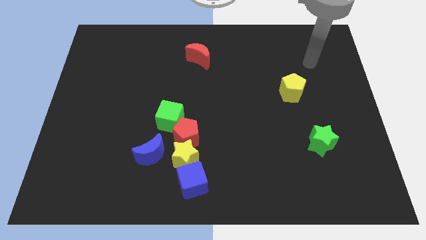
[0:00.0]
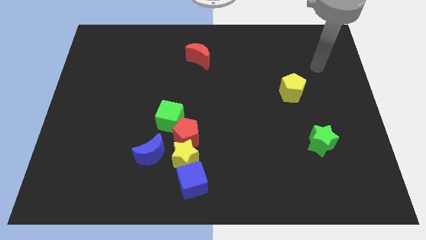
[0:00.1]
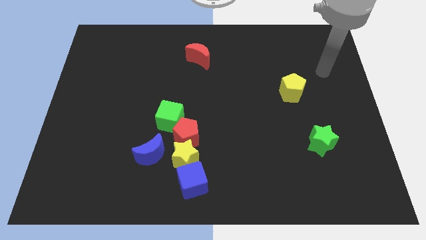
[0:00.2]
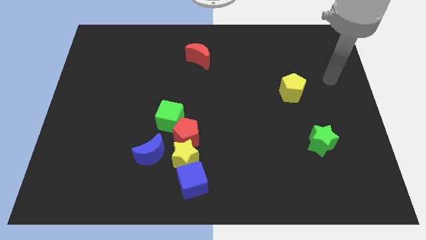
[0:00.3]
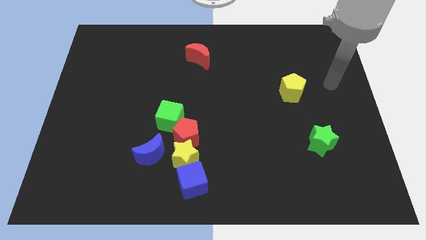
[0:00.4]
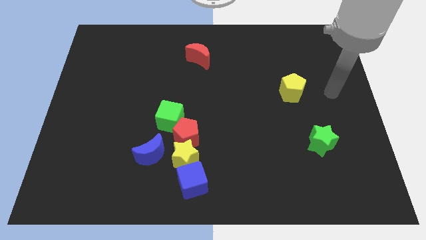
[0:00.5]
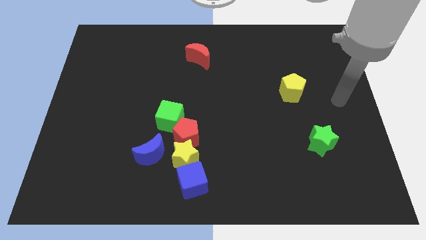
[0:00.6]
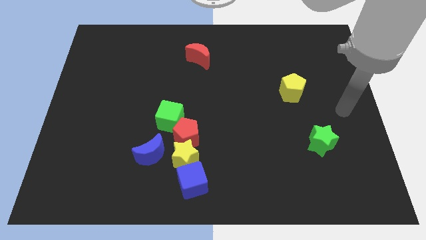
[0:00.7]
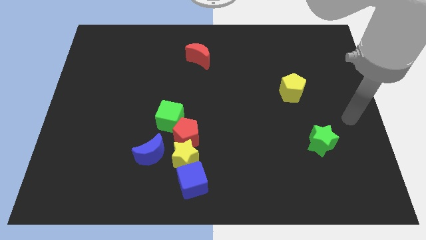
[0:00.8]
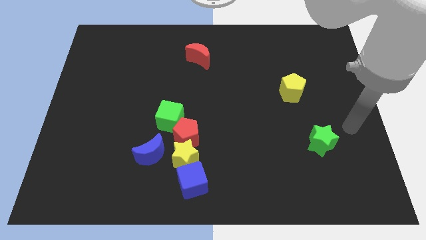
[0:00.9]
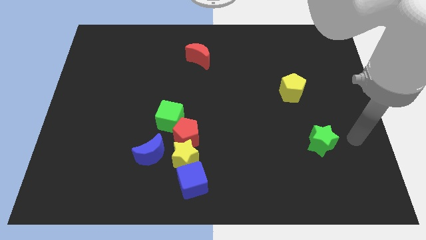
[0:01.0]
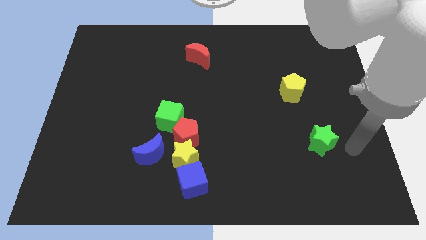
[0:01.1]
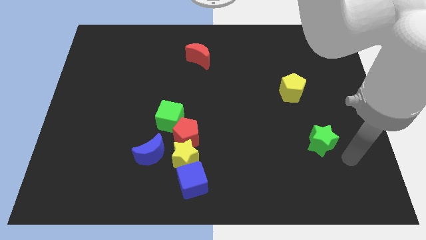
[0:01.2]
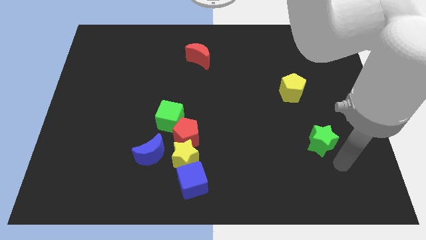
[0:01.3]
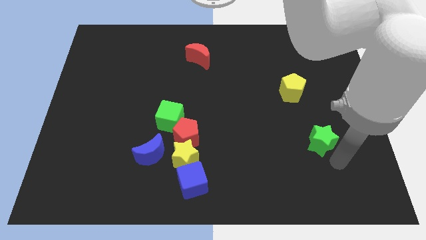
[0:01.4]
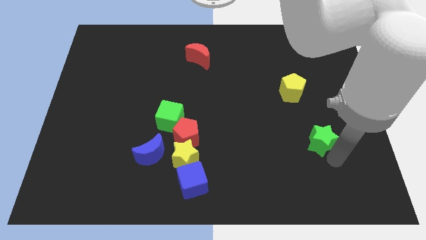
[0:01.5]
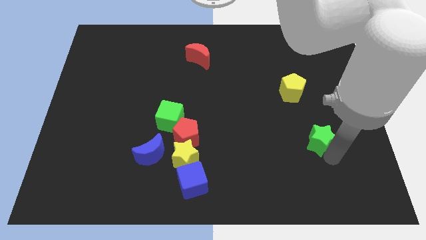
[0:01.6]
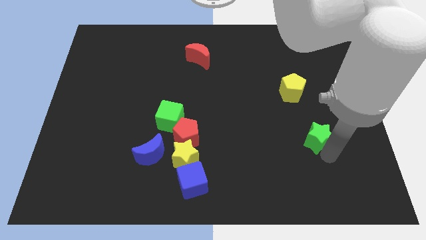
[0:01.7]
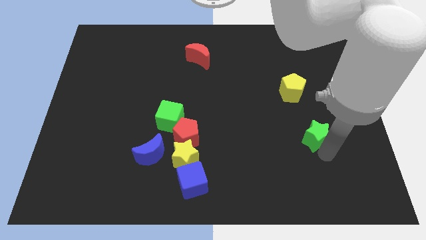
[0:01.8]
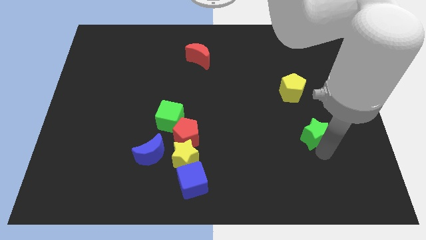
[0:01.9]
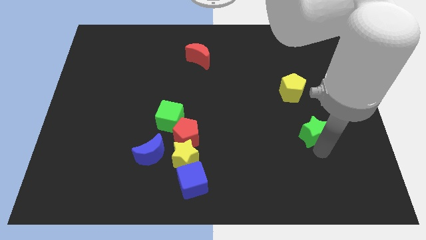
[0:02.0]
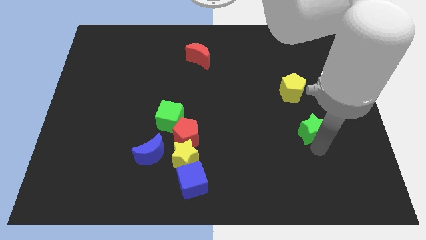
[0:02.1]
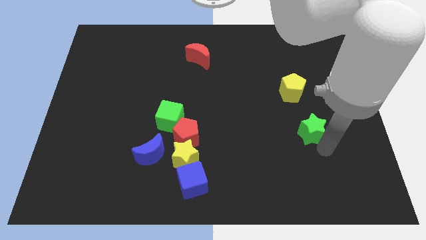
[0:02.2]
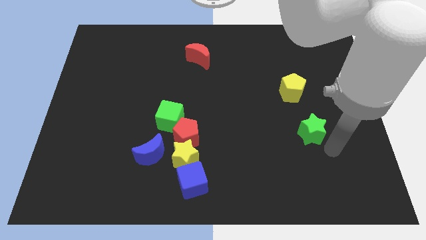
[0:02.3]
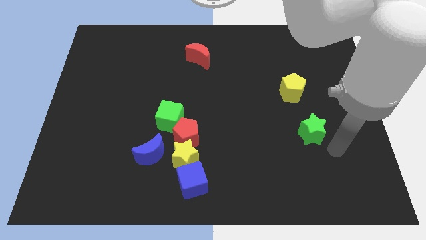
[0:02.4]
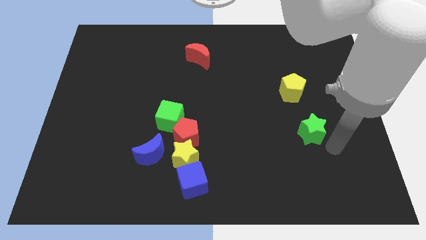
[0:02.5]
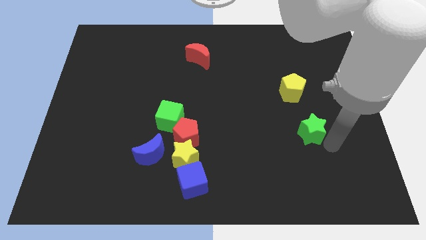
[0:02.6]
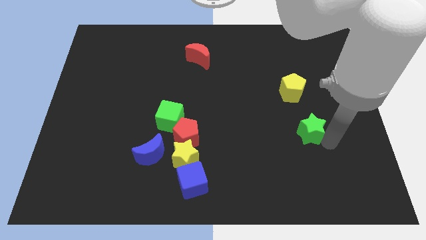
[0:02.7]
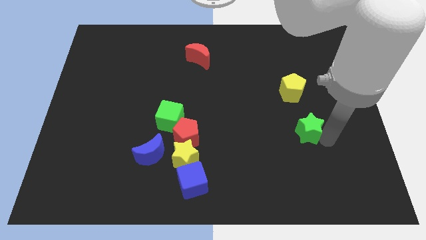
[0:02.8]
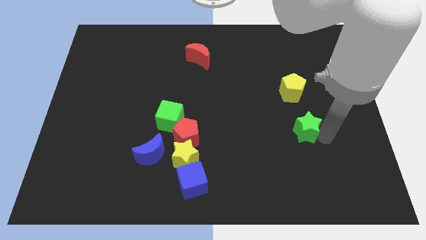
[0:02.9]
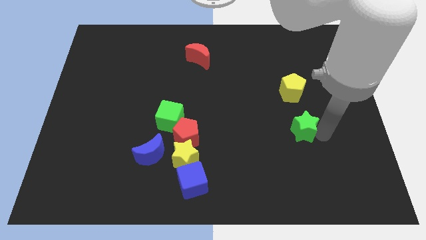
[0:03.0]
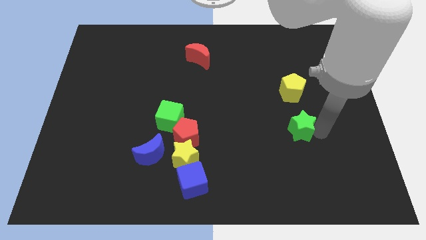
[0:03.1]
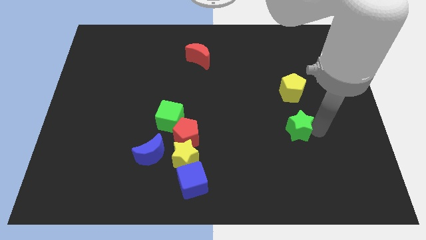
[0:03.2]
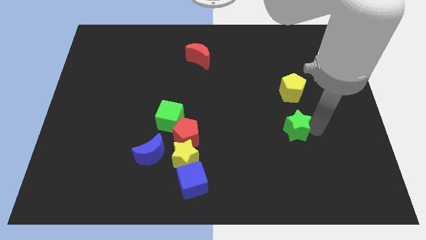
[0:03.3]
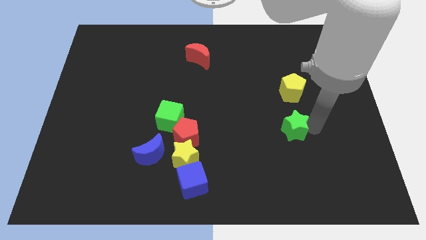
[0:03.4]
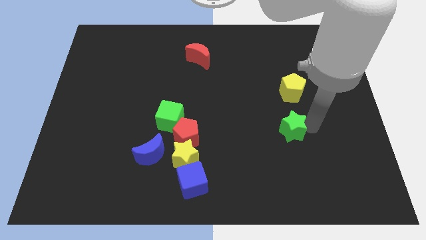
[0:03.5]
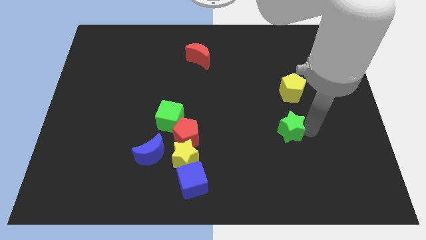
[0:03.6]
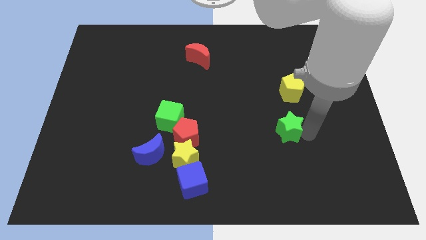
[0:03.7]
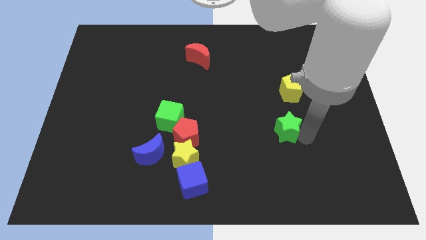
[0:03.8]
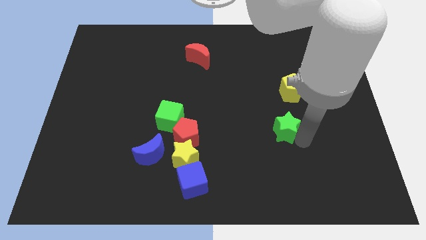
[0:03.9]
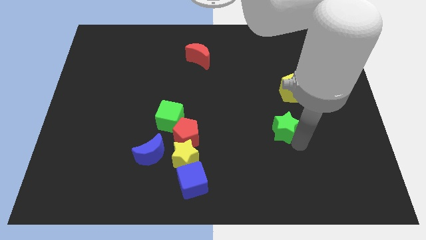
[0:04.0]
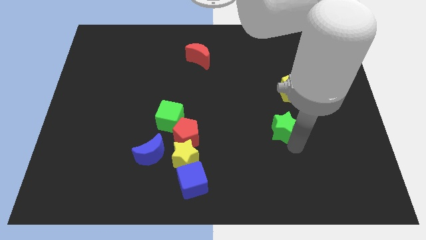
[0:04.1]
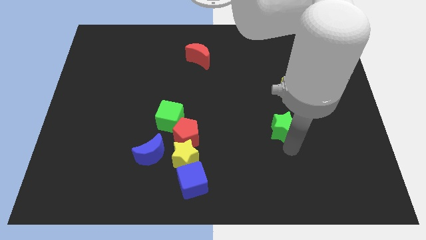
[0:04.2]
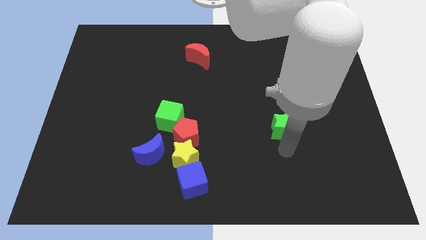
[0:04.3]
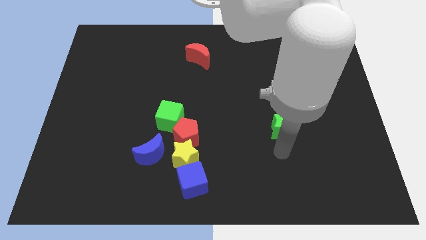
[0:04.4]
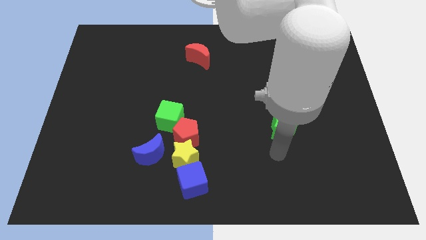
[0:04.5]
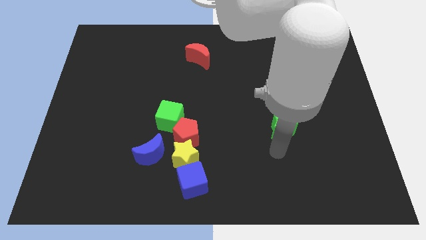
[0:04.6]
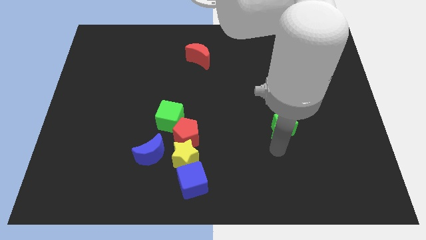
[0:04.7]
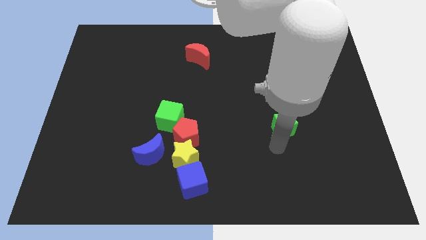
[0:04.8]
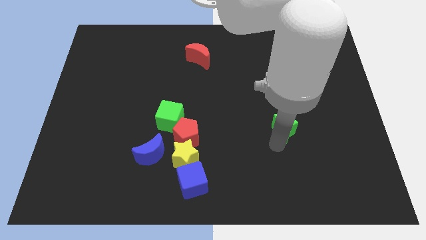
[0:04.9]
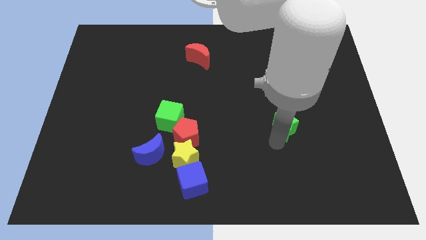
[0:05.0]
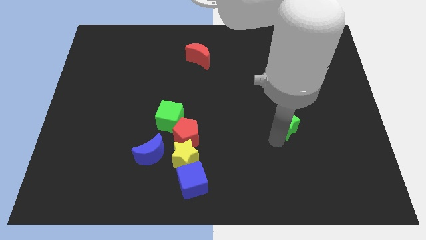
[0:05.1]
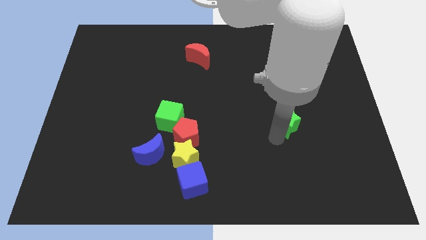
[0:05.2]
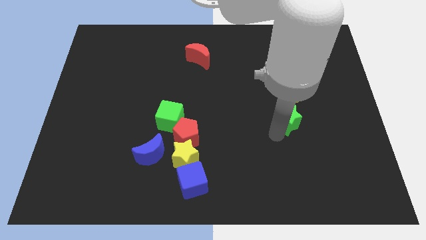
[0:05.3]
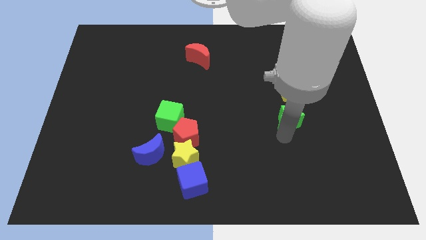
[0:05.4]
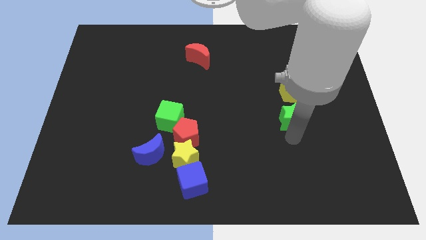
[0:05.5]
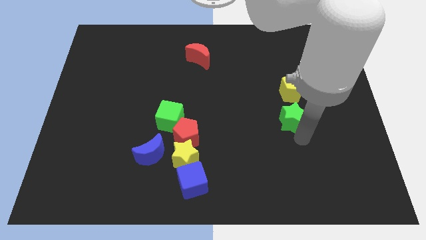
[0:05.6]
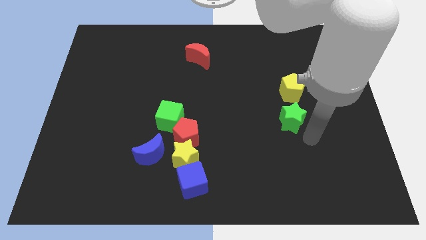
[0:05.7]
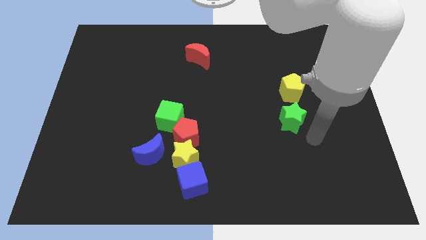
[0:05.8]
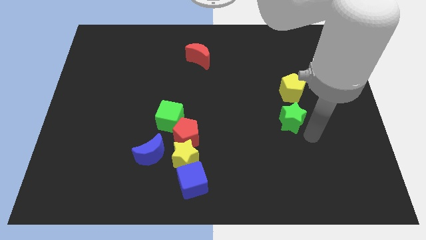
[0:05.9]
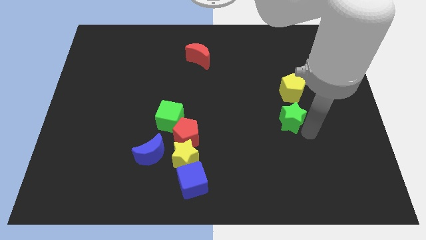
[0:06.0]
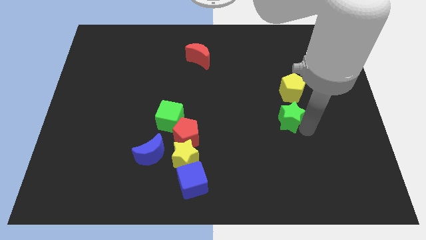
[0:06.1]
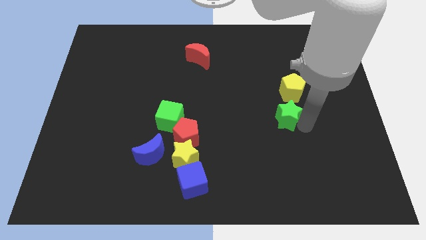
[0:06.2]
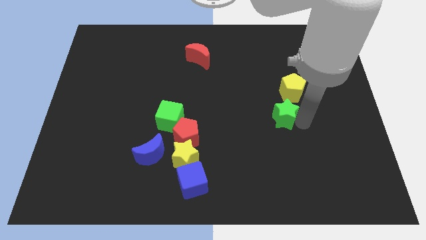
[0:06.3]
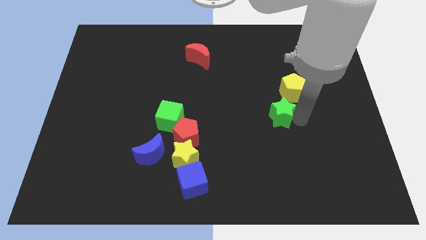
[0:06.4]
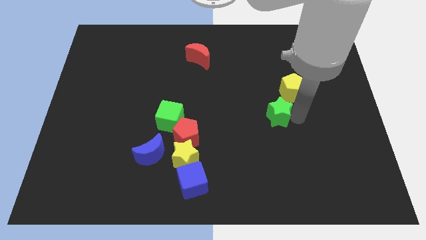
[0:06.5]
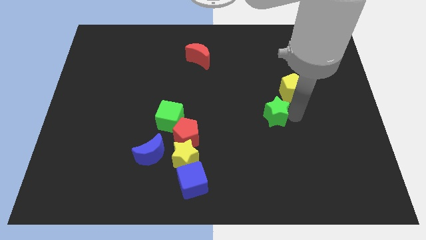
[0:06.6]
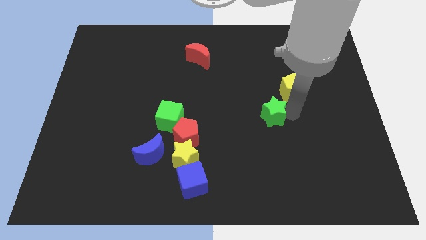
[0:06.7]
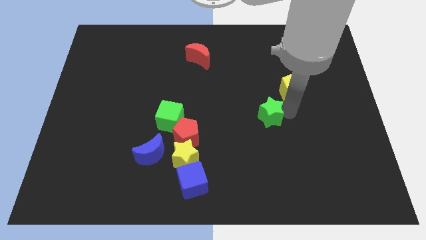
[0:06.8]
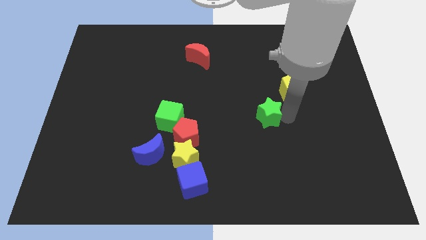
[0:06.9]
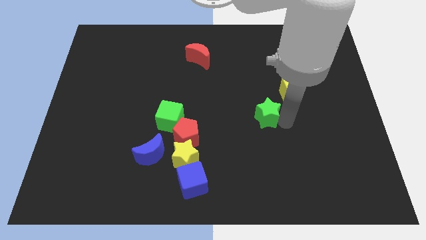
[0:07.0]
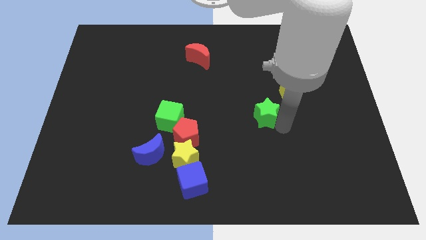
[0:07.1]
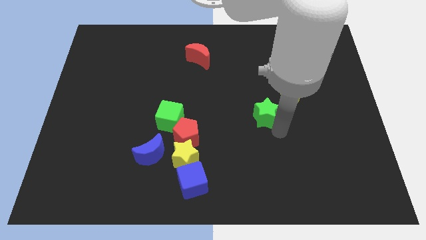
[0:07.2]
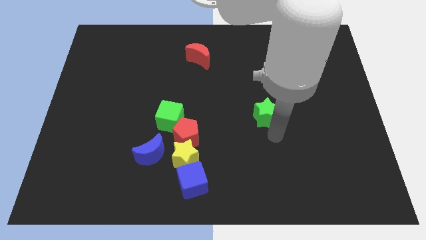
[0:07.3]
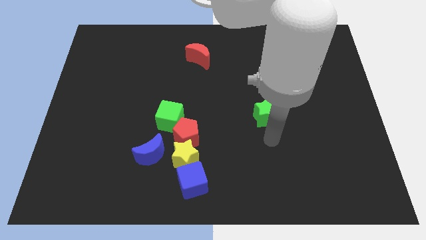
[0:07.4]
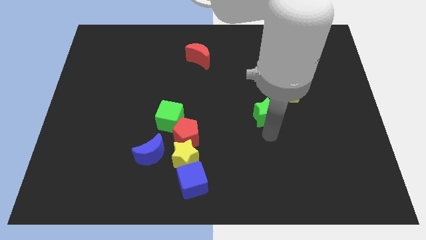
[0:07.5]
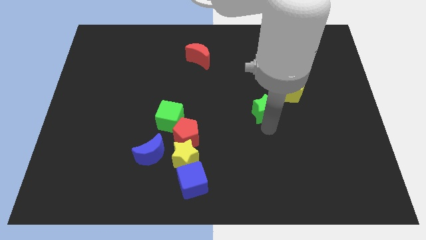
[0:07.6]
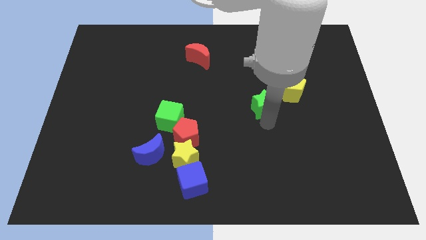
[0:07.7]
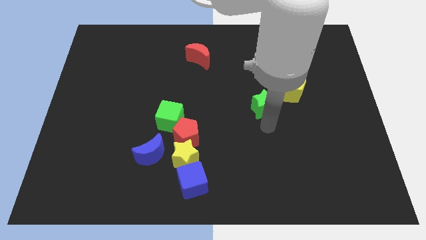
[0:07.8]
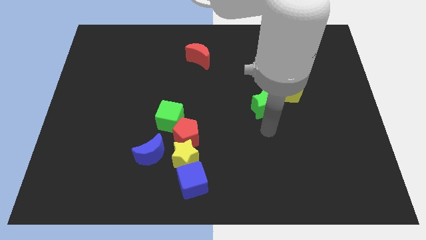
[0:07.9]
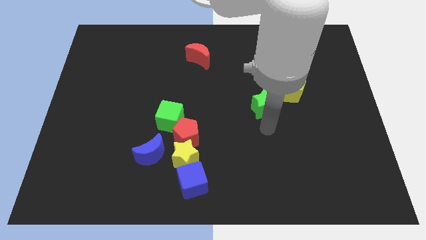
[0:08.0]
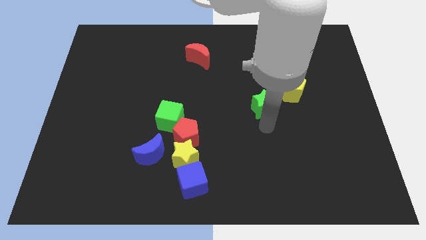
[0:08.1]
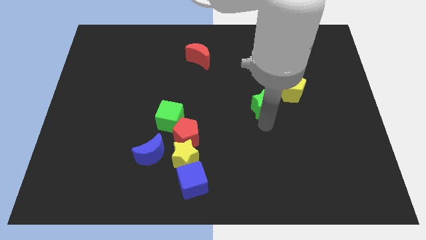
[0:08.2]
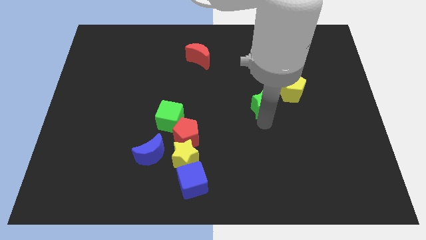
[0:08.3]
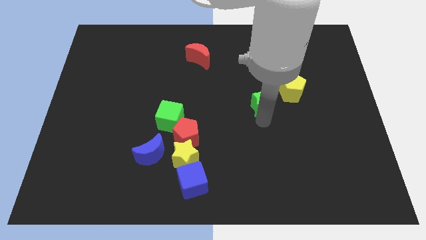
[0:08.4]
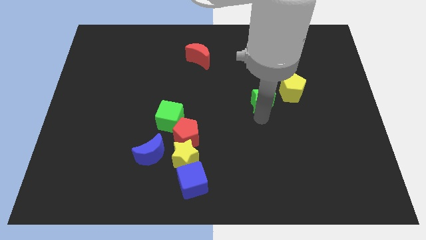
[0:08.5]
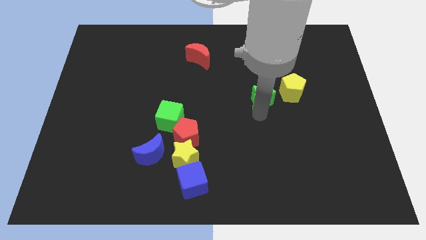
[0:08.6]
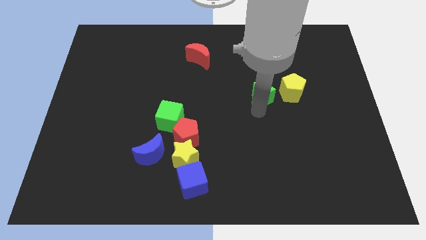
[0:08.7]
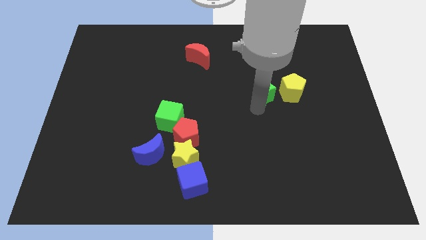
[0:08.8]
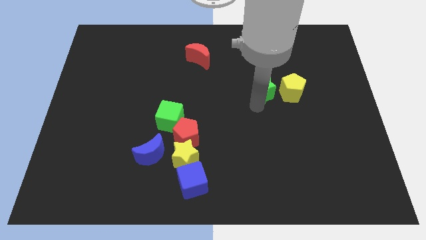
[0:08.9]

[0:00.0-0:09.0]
slide the green star diagonally up and to the left of the yellow pentagon
